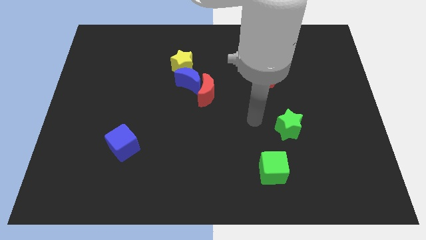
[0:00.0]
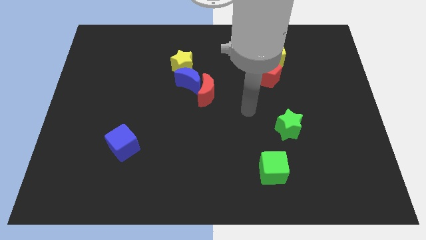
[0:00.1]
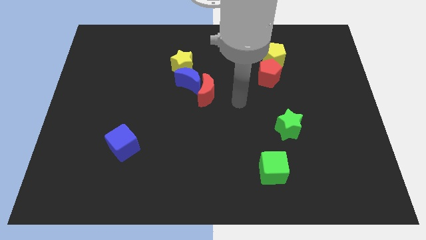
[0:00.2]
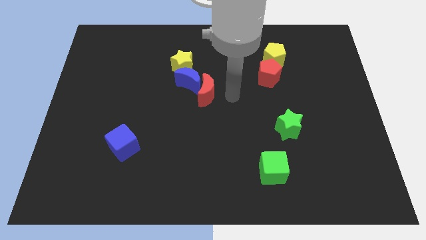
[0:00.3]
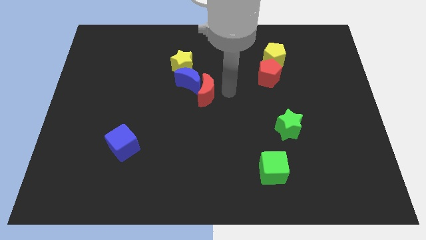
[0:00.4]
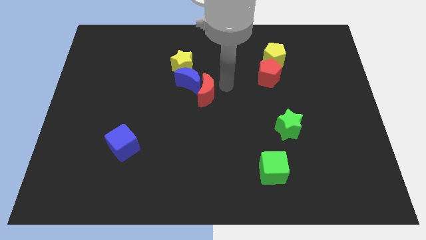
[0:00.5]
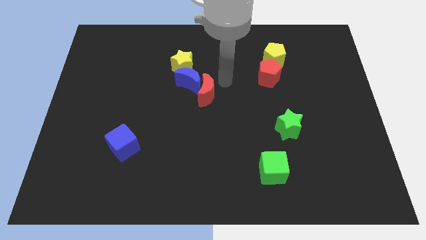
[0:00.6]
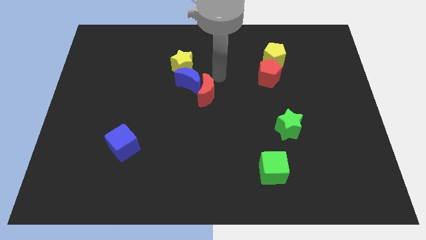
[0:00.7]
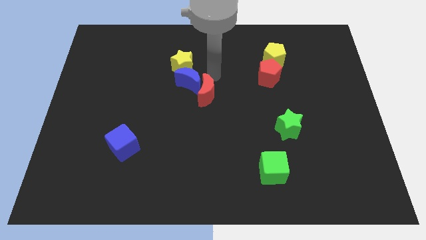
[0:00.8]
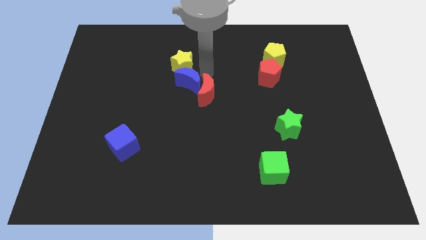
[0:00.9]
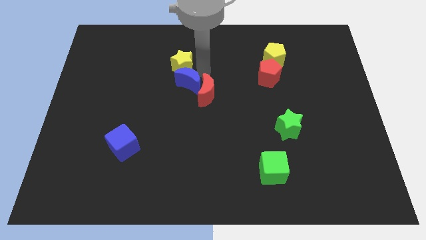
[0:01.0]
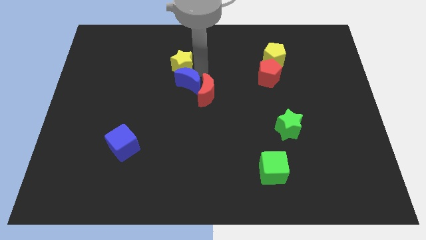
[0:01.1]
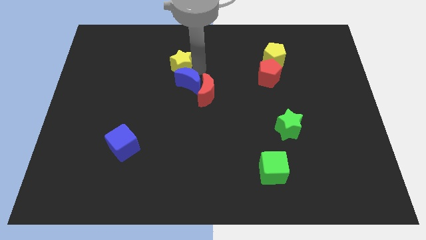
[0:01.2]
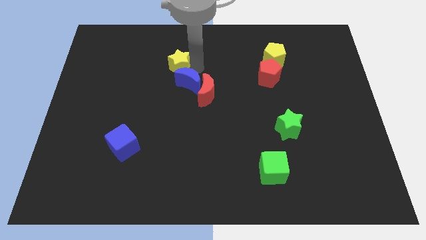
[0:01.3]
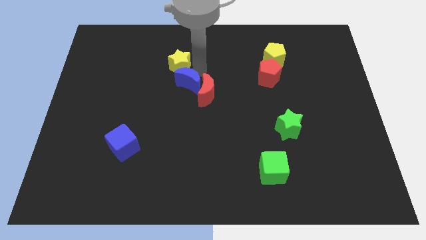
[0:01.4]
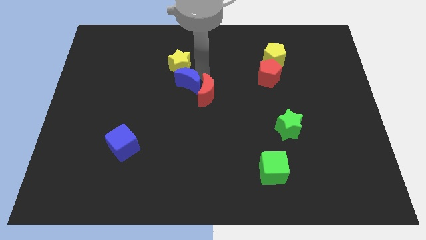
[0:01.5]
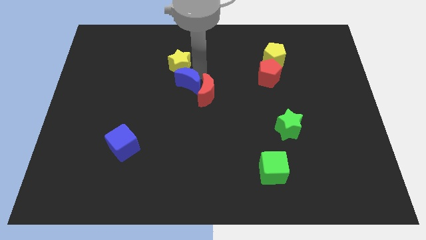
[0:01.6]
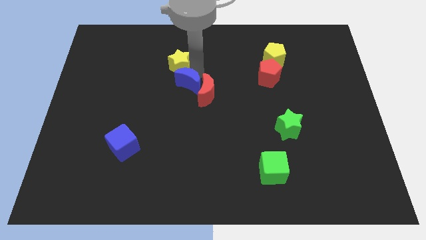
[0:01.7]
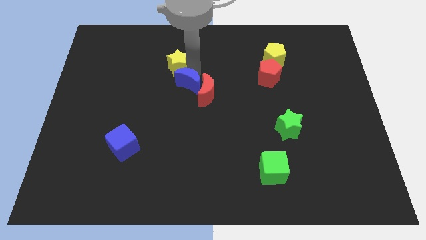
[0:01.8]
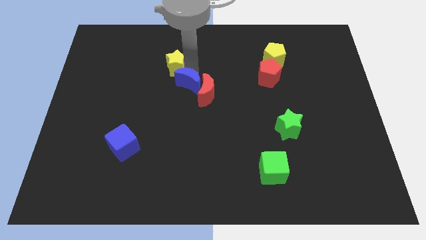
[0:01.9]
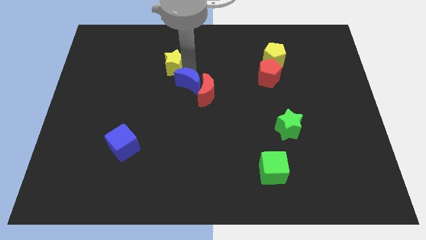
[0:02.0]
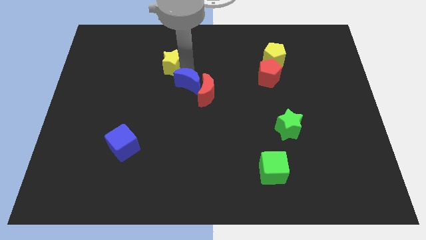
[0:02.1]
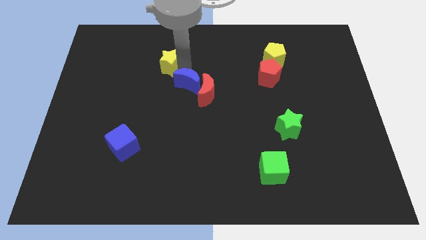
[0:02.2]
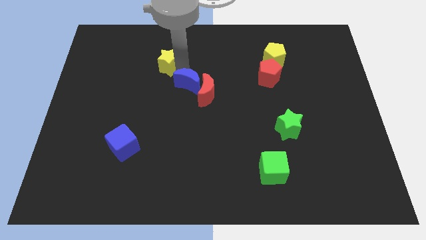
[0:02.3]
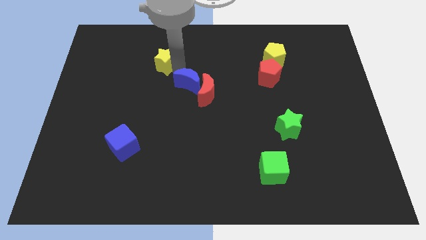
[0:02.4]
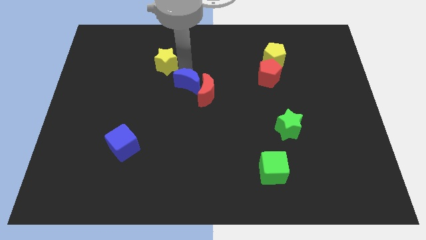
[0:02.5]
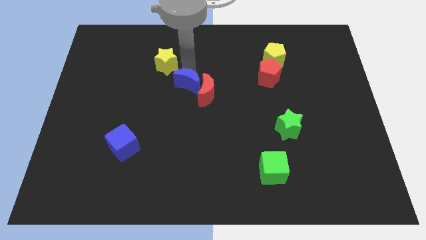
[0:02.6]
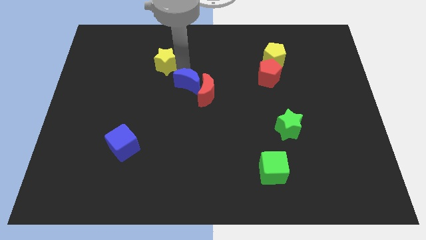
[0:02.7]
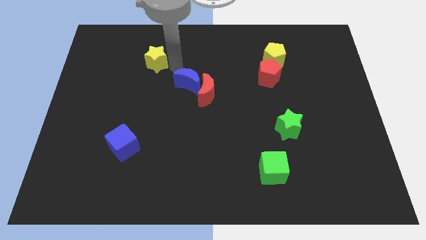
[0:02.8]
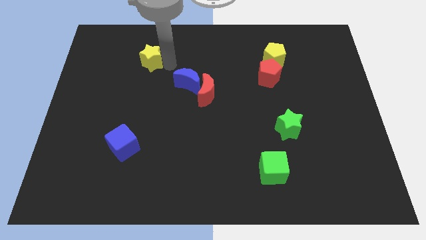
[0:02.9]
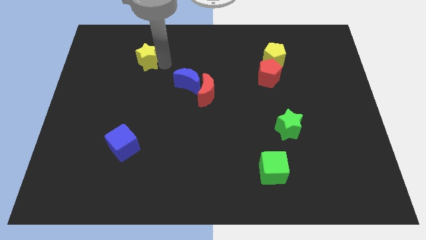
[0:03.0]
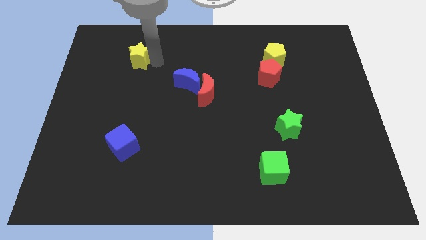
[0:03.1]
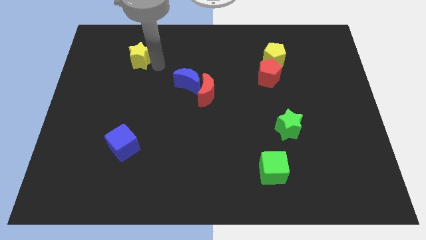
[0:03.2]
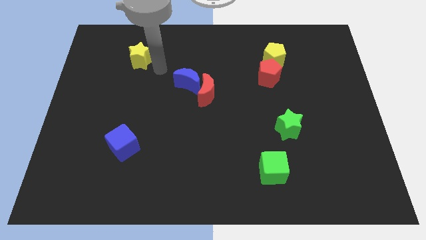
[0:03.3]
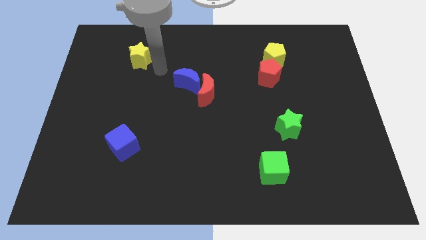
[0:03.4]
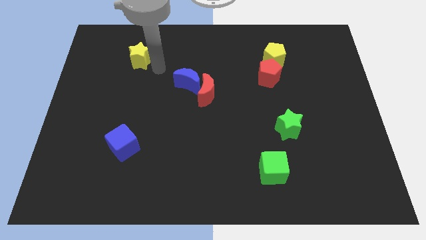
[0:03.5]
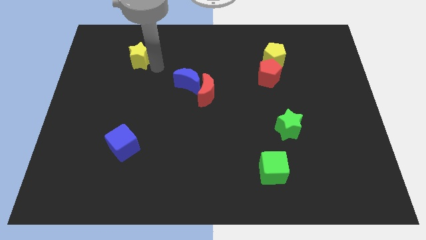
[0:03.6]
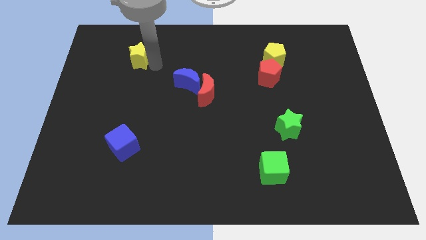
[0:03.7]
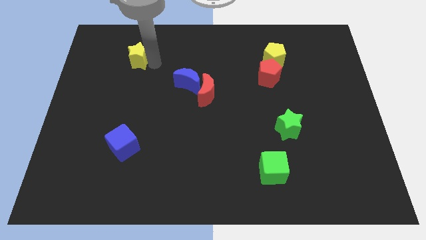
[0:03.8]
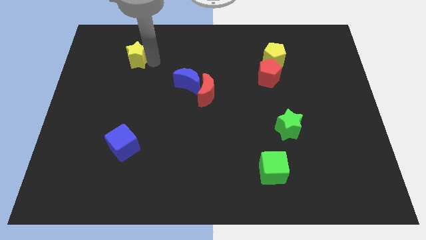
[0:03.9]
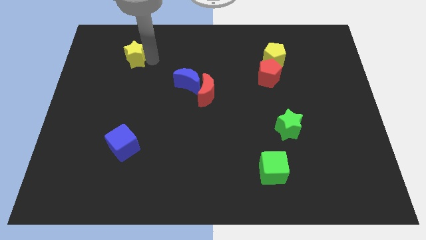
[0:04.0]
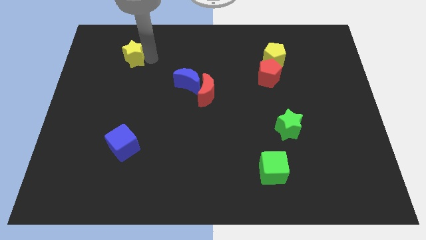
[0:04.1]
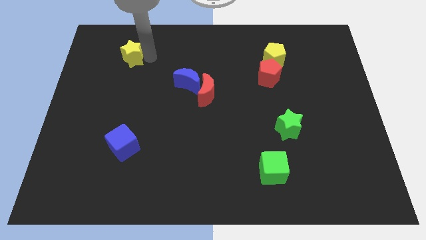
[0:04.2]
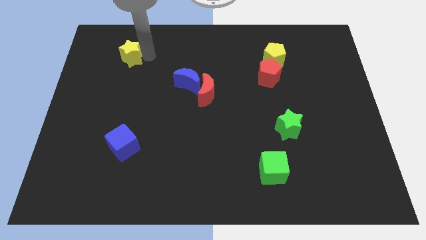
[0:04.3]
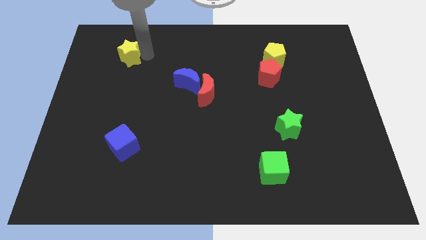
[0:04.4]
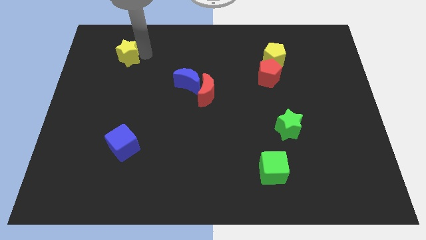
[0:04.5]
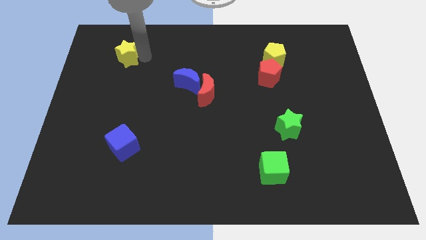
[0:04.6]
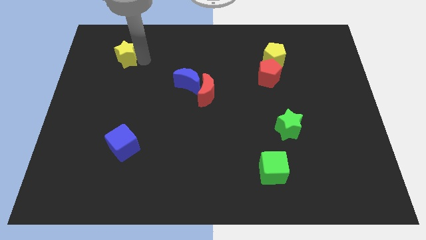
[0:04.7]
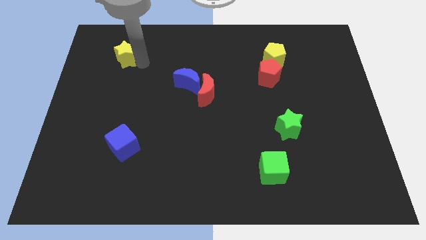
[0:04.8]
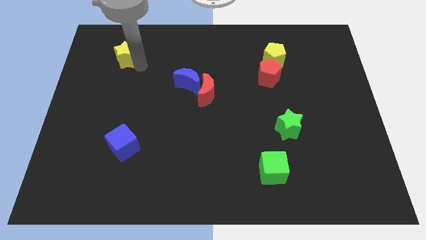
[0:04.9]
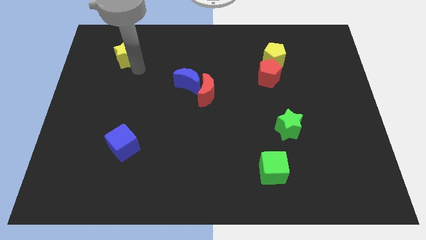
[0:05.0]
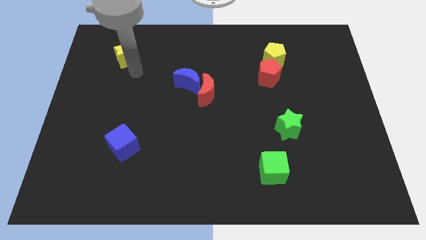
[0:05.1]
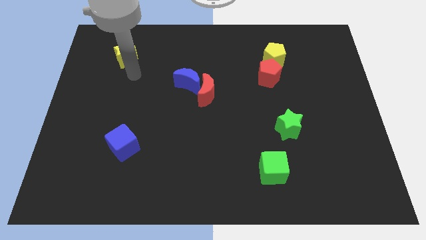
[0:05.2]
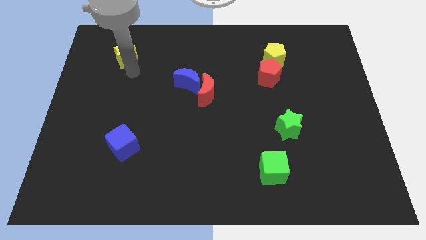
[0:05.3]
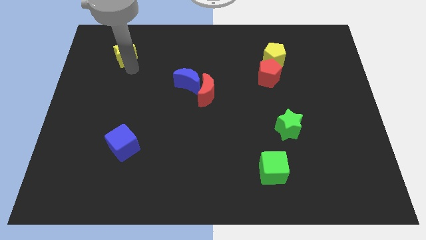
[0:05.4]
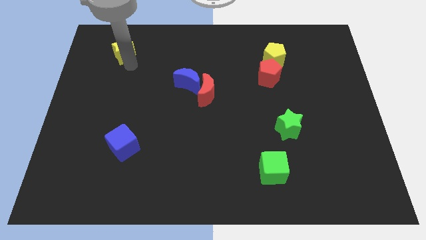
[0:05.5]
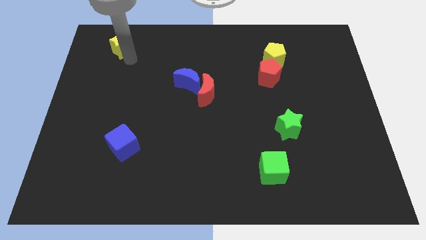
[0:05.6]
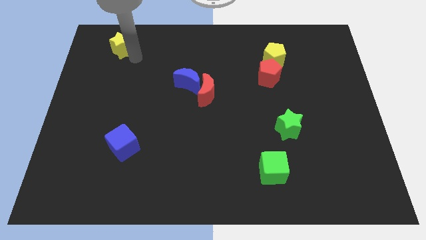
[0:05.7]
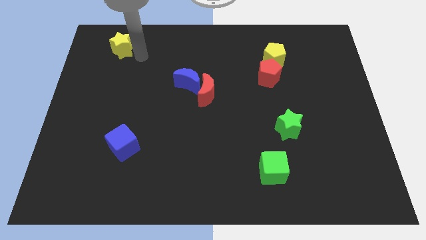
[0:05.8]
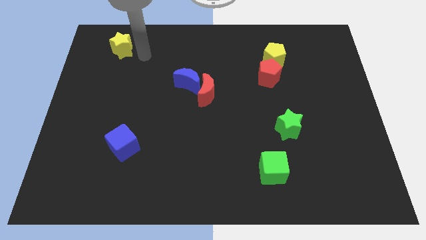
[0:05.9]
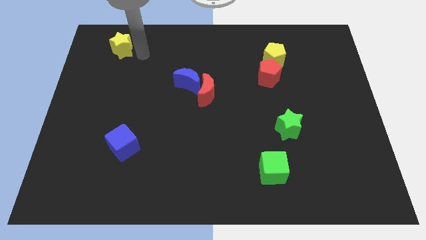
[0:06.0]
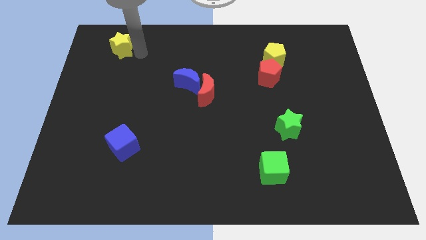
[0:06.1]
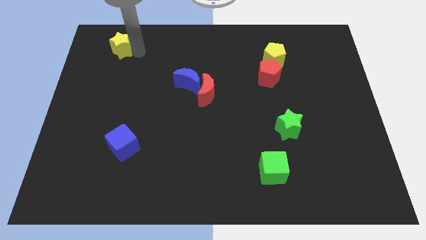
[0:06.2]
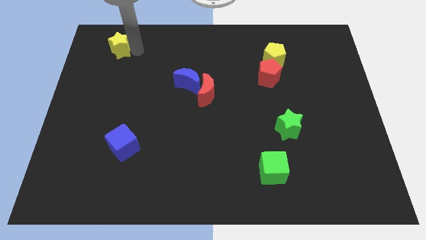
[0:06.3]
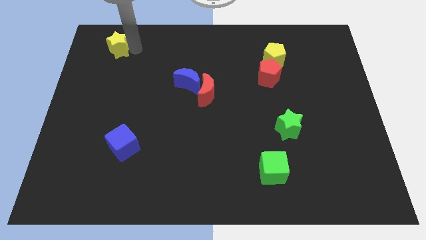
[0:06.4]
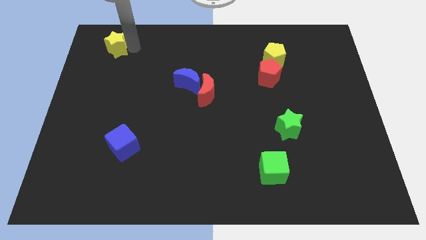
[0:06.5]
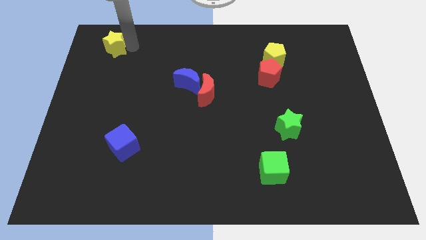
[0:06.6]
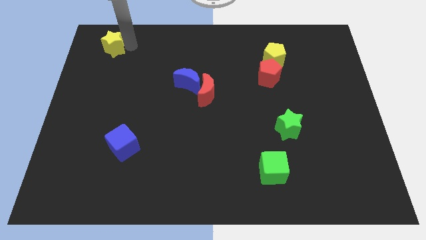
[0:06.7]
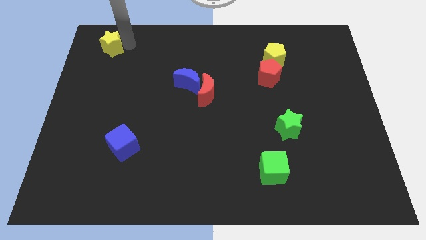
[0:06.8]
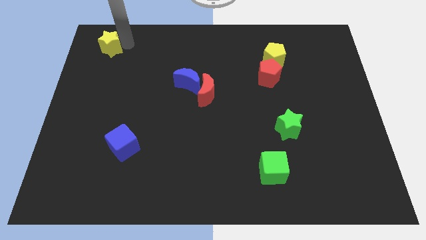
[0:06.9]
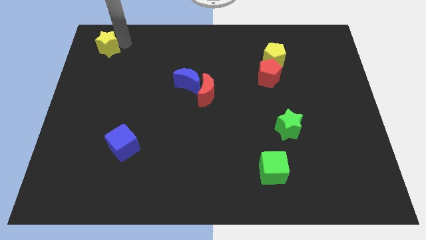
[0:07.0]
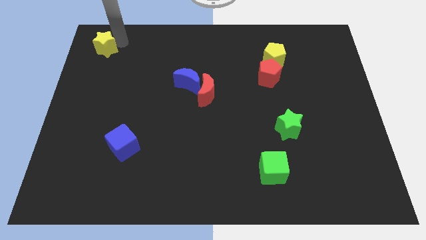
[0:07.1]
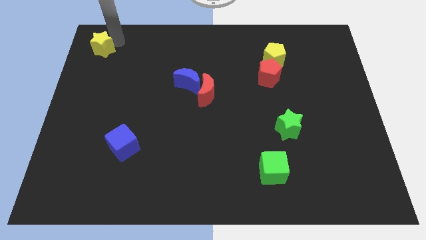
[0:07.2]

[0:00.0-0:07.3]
slide the yellow star to the top left of the board
